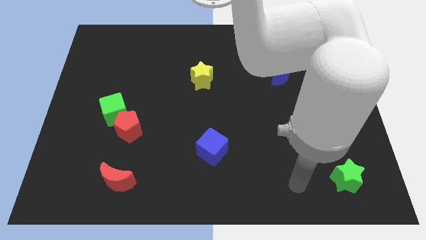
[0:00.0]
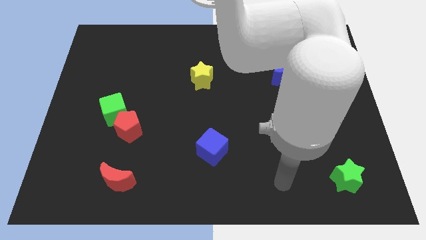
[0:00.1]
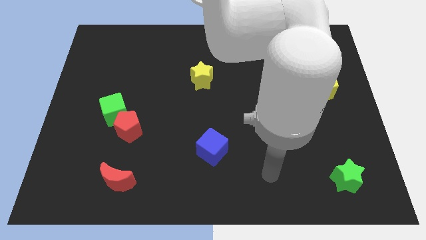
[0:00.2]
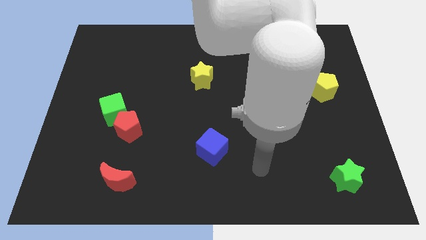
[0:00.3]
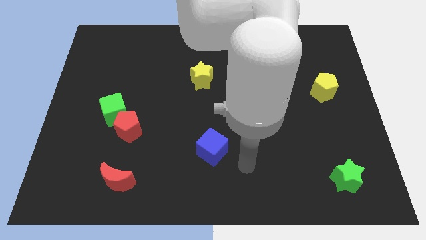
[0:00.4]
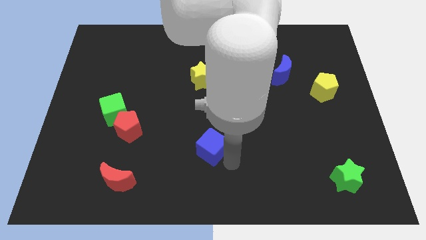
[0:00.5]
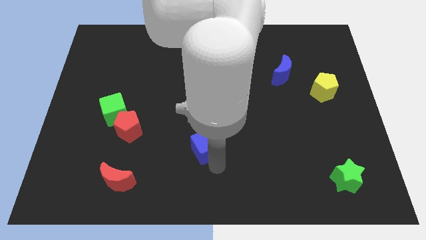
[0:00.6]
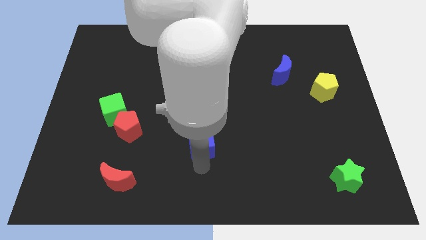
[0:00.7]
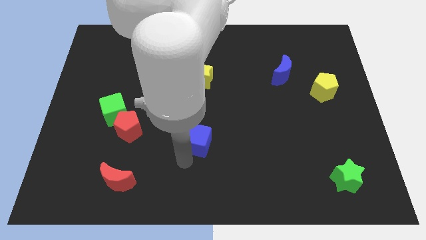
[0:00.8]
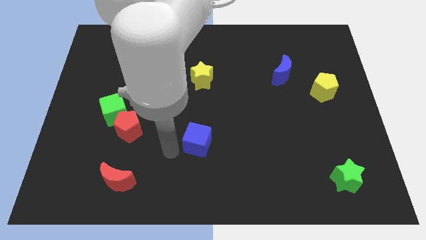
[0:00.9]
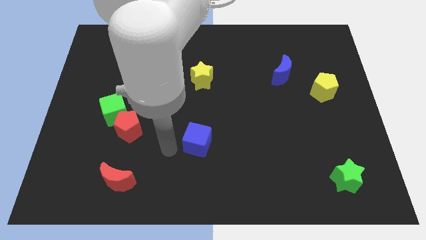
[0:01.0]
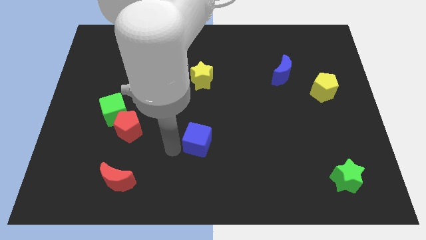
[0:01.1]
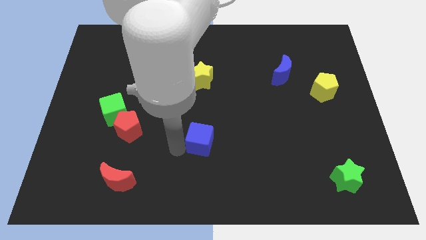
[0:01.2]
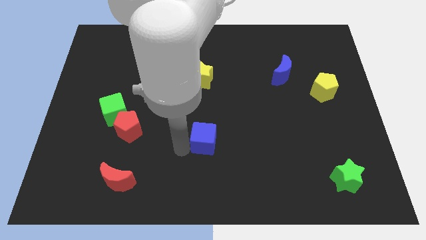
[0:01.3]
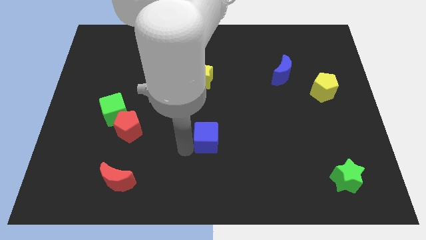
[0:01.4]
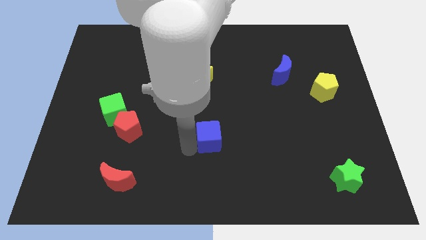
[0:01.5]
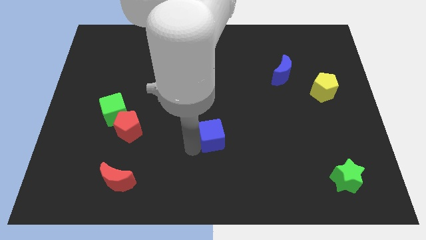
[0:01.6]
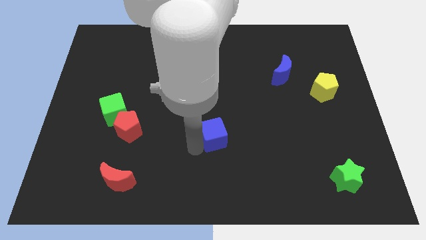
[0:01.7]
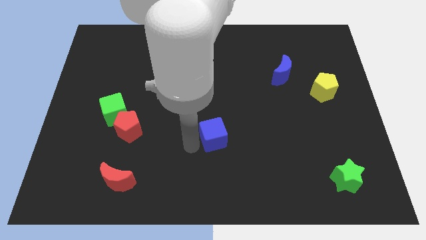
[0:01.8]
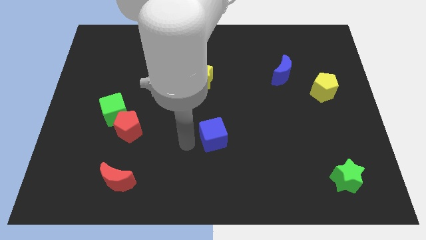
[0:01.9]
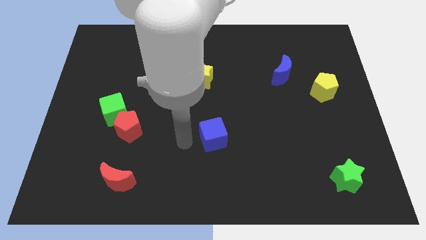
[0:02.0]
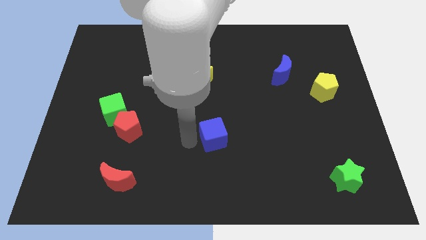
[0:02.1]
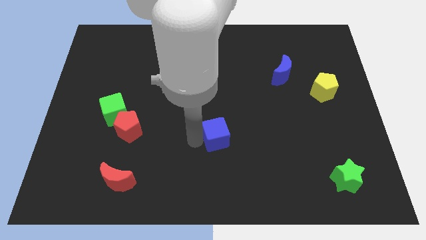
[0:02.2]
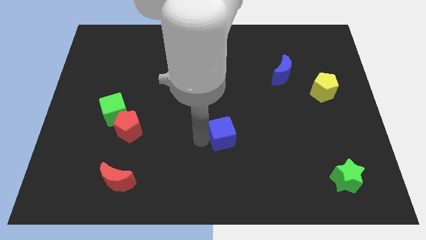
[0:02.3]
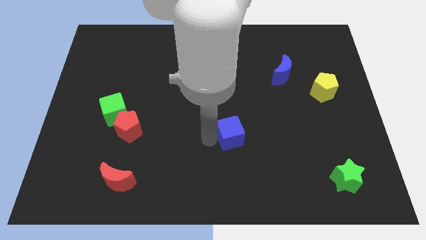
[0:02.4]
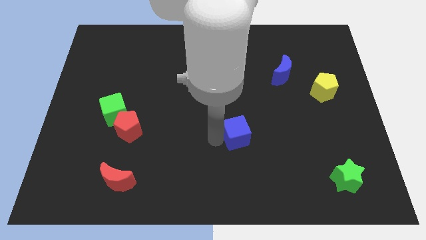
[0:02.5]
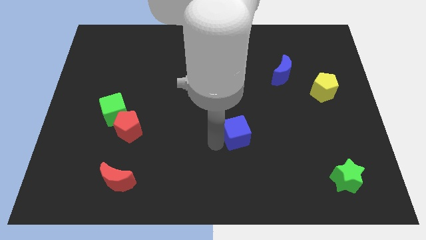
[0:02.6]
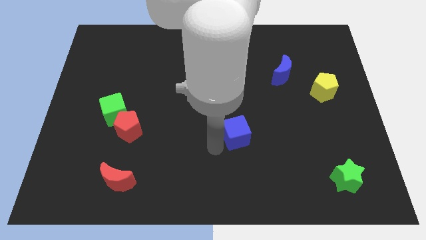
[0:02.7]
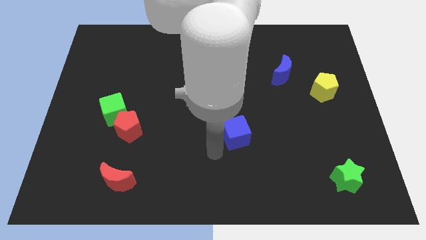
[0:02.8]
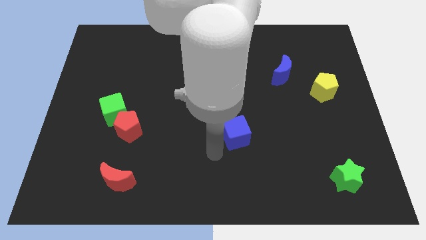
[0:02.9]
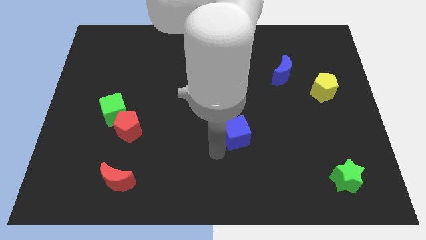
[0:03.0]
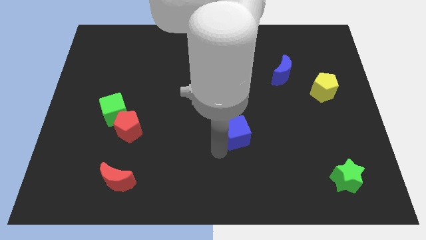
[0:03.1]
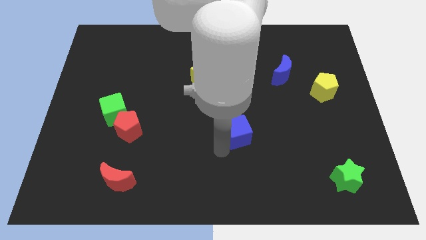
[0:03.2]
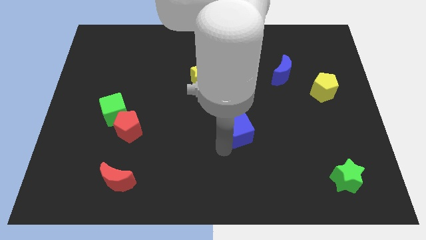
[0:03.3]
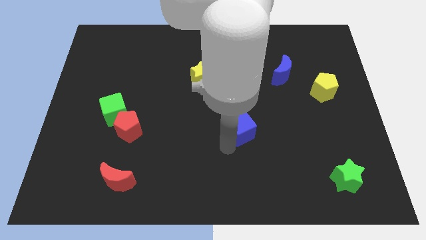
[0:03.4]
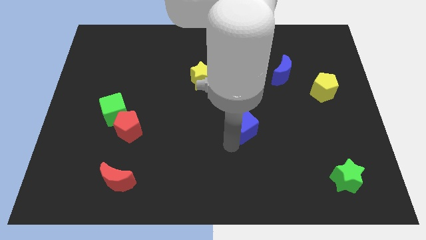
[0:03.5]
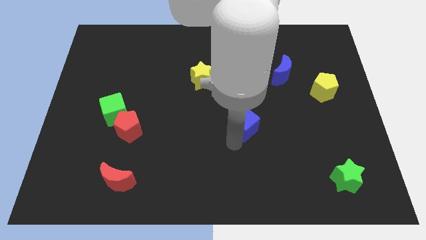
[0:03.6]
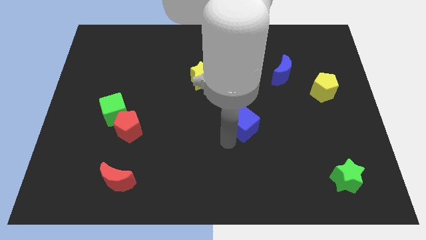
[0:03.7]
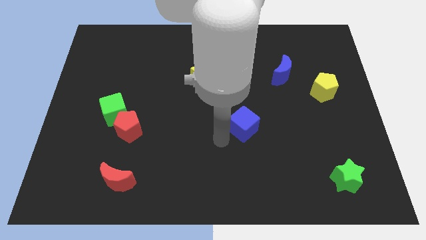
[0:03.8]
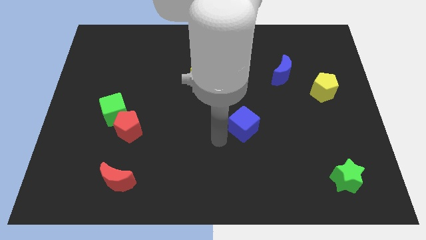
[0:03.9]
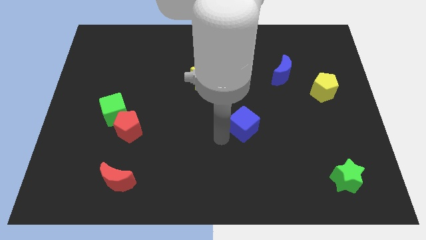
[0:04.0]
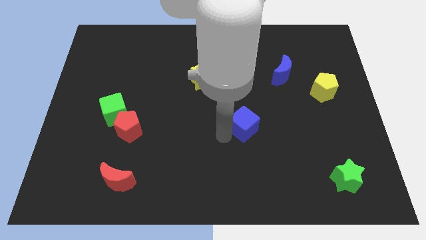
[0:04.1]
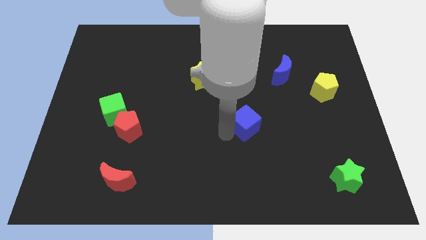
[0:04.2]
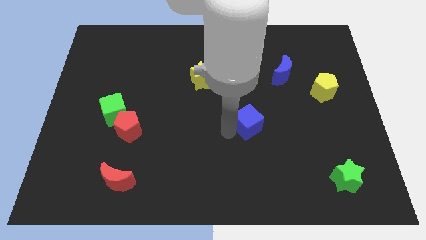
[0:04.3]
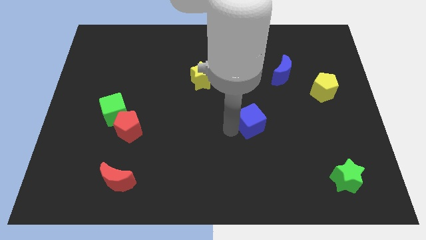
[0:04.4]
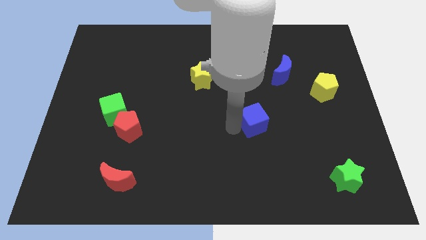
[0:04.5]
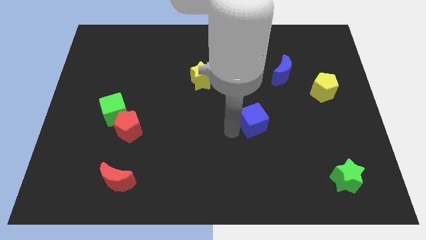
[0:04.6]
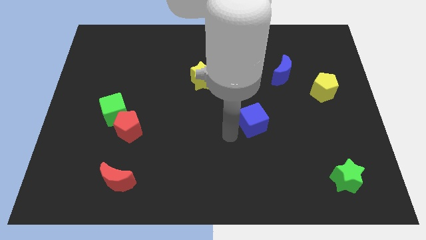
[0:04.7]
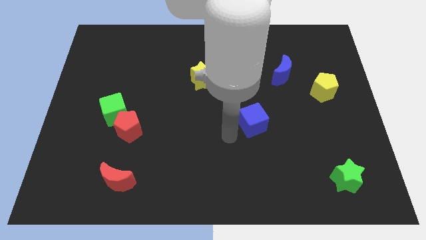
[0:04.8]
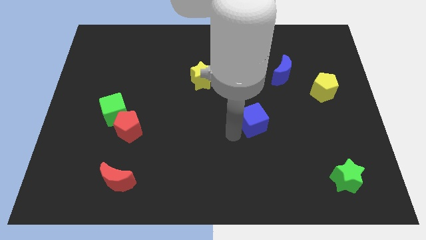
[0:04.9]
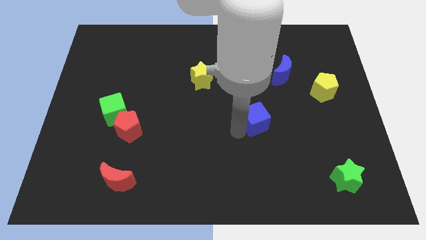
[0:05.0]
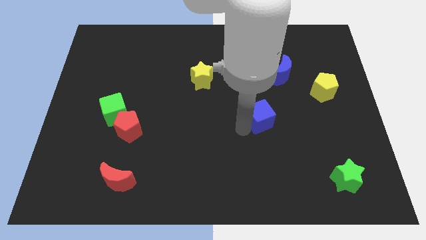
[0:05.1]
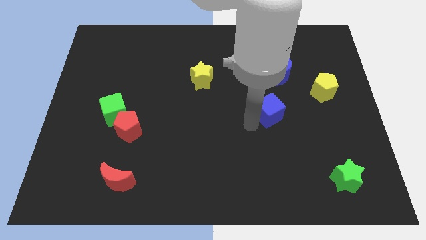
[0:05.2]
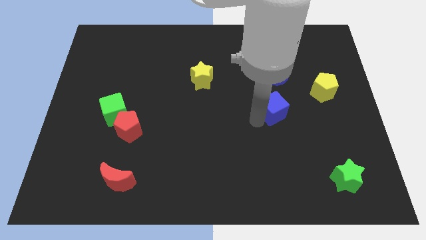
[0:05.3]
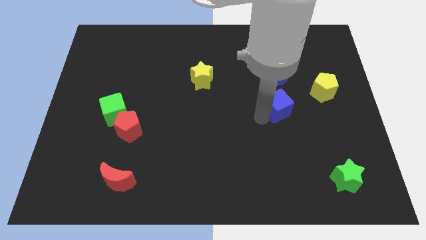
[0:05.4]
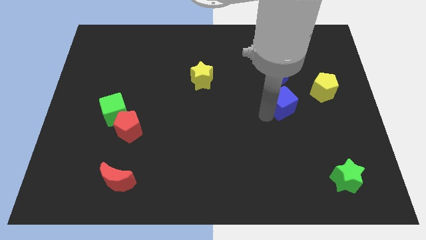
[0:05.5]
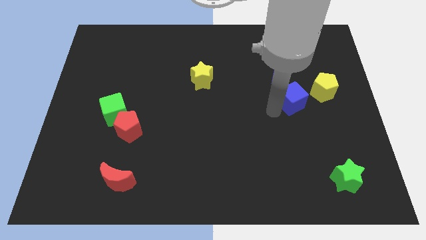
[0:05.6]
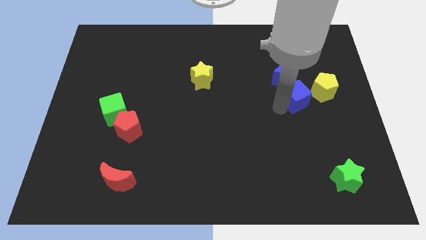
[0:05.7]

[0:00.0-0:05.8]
slide the blue cube to the bottom right side of the blue moon
